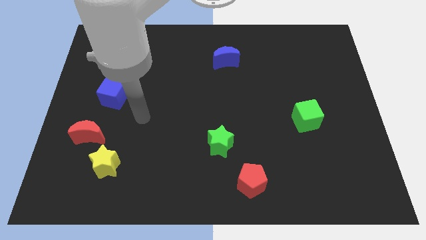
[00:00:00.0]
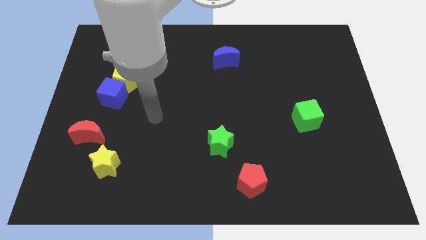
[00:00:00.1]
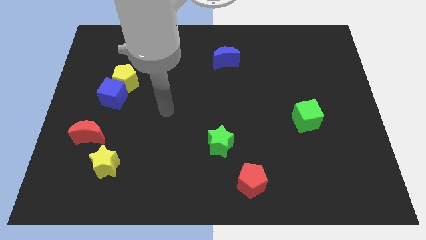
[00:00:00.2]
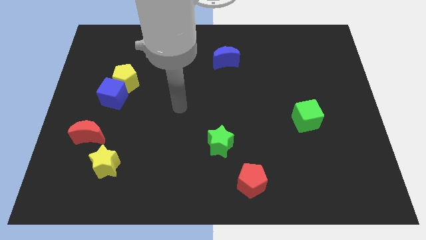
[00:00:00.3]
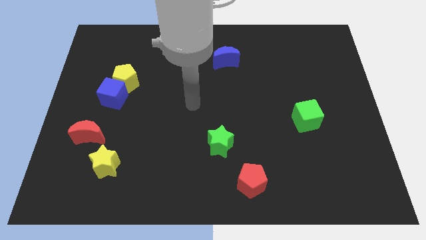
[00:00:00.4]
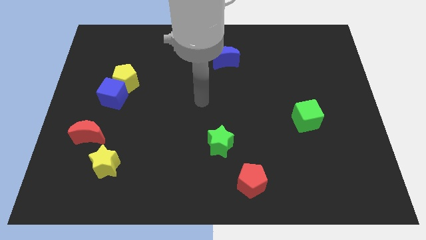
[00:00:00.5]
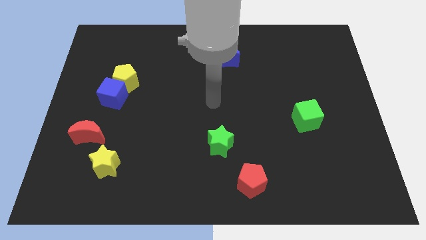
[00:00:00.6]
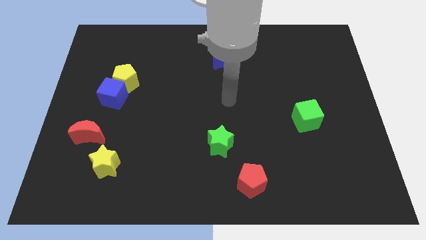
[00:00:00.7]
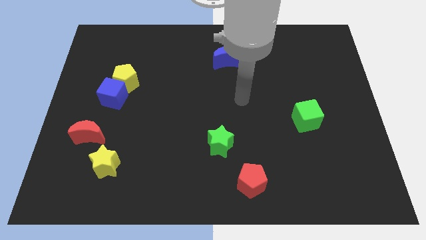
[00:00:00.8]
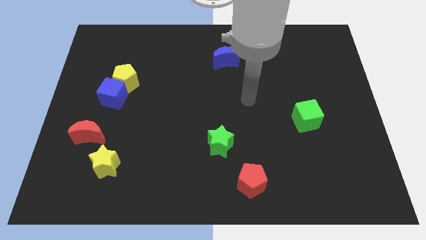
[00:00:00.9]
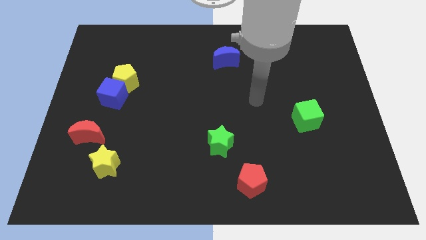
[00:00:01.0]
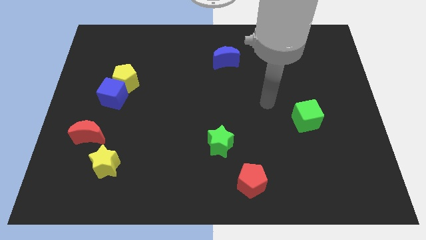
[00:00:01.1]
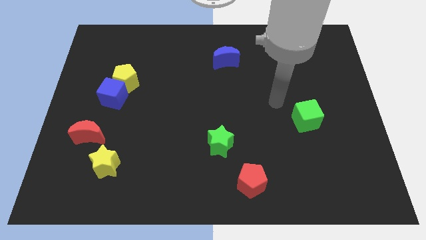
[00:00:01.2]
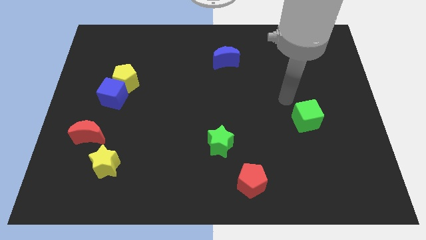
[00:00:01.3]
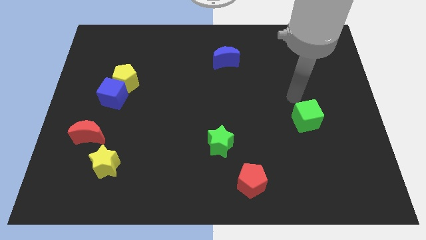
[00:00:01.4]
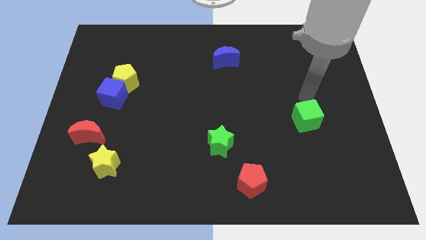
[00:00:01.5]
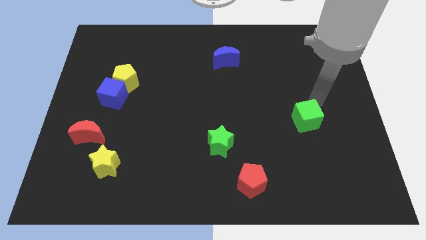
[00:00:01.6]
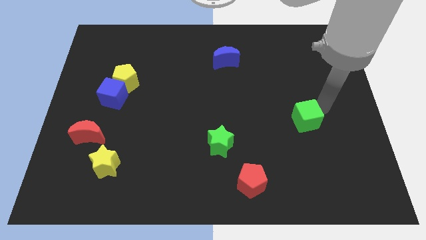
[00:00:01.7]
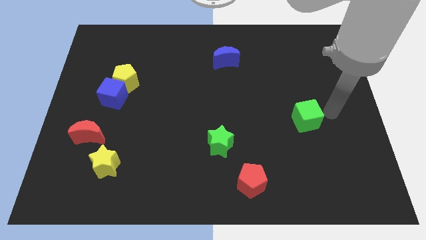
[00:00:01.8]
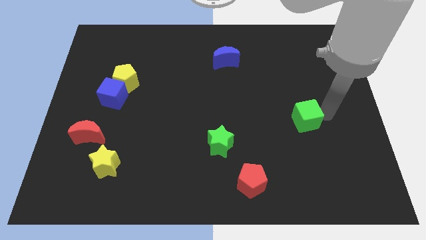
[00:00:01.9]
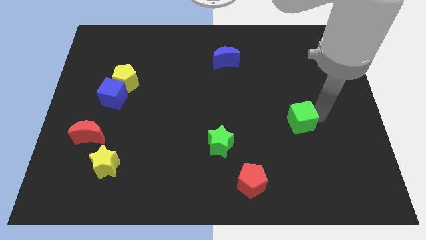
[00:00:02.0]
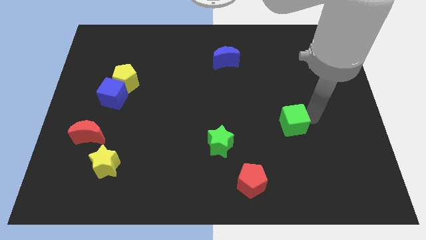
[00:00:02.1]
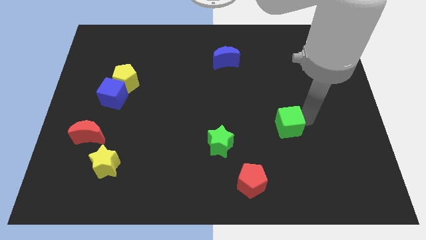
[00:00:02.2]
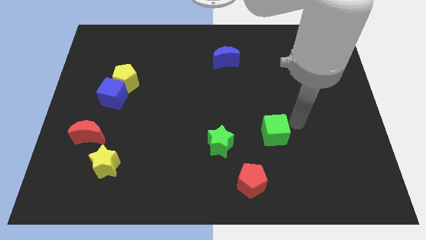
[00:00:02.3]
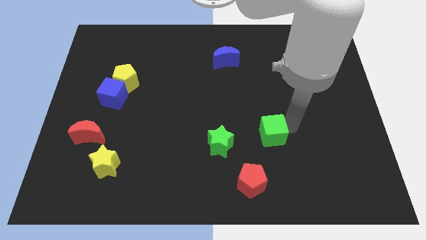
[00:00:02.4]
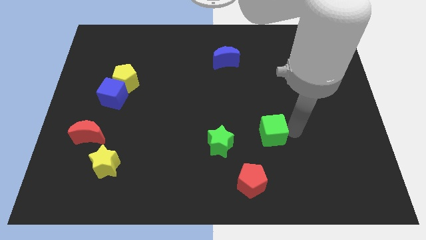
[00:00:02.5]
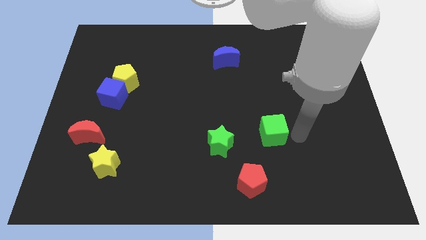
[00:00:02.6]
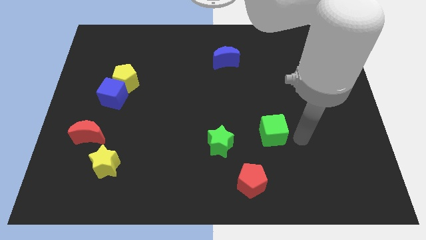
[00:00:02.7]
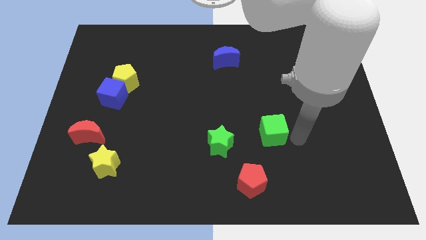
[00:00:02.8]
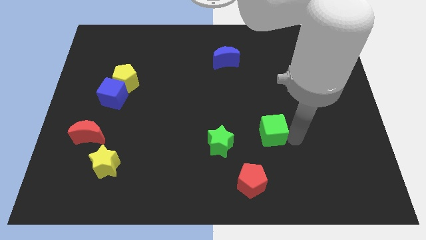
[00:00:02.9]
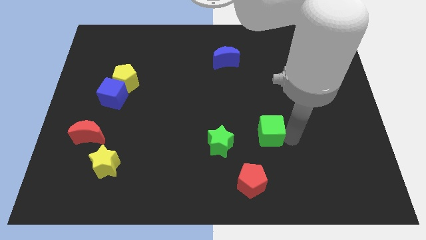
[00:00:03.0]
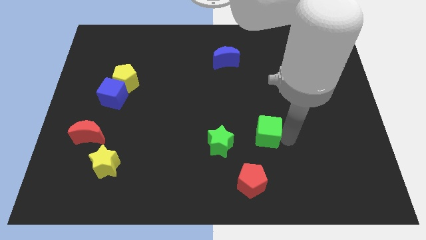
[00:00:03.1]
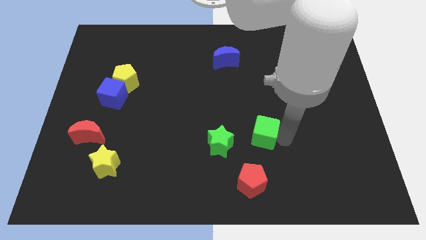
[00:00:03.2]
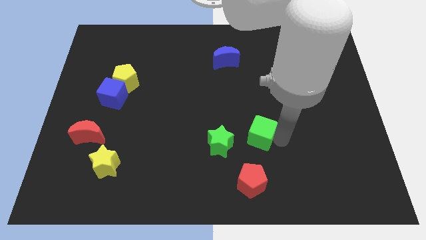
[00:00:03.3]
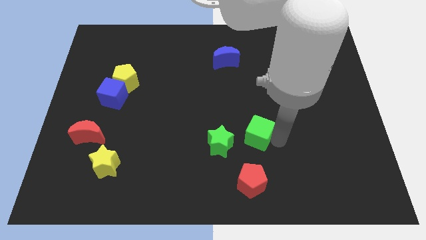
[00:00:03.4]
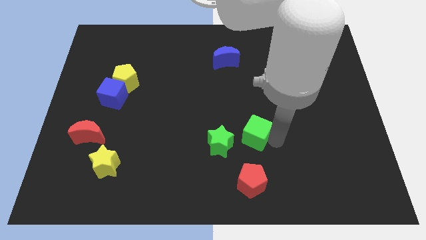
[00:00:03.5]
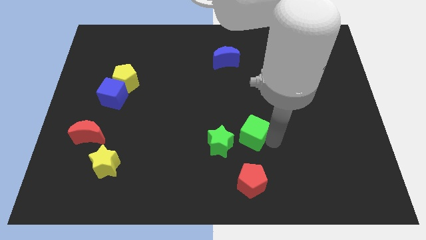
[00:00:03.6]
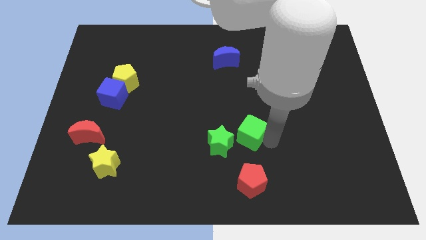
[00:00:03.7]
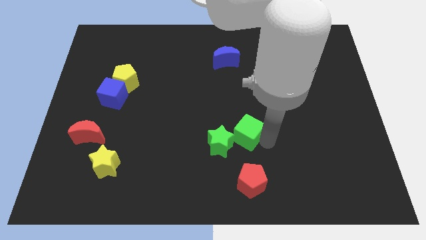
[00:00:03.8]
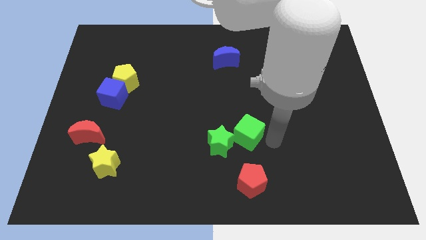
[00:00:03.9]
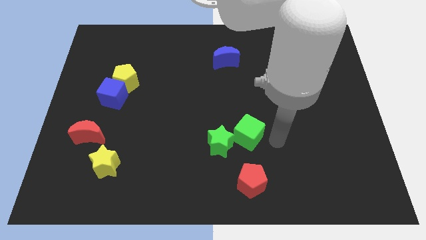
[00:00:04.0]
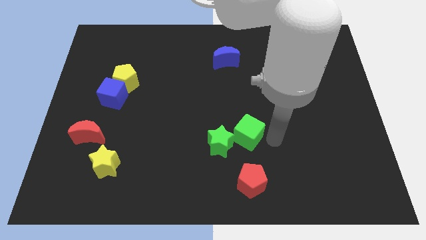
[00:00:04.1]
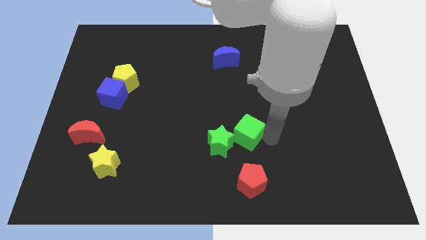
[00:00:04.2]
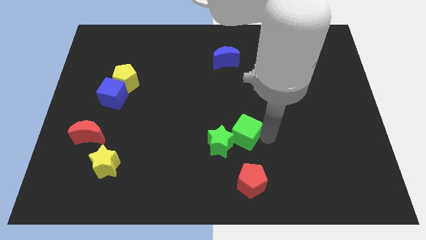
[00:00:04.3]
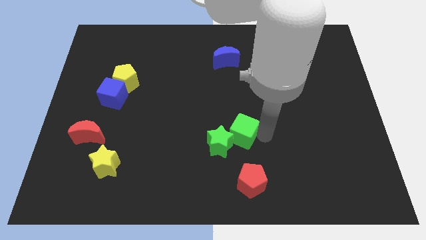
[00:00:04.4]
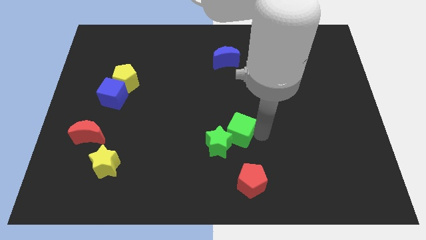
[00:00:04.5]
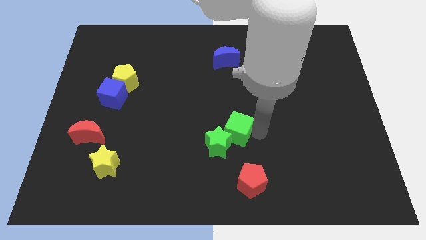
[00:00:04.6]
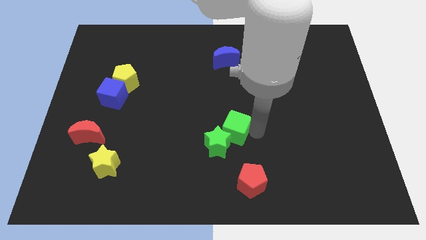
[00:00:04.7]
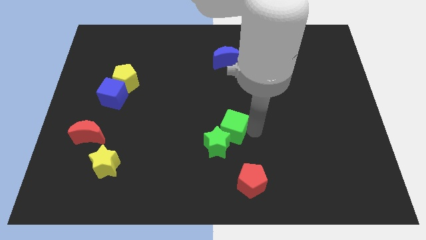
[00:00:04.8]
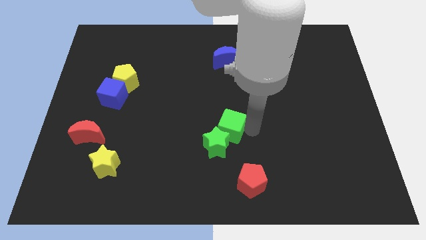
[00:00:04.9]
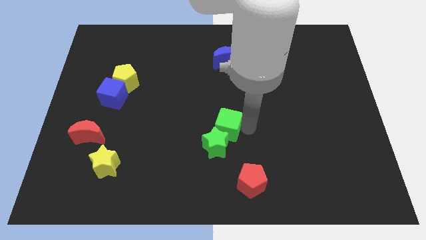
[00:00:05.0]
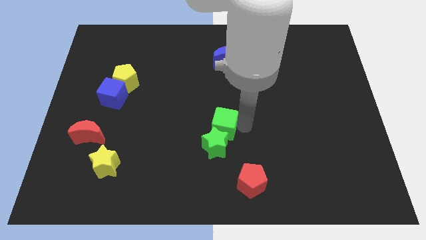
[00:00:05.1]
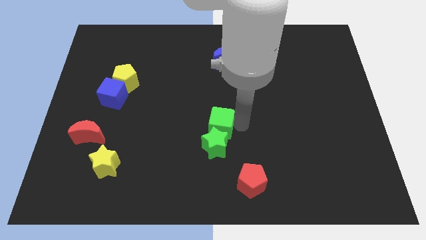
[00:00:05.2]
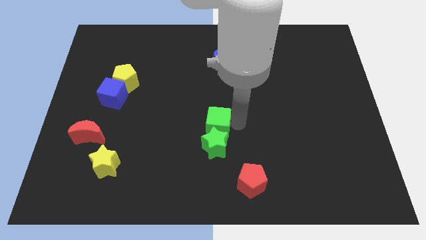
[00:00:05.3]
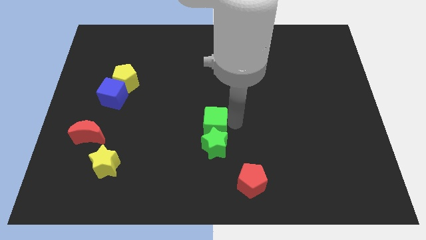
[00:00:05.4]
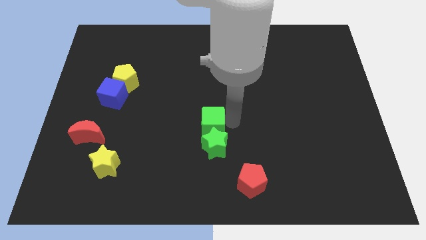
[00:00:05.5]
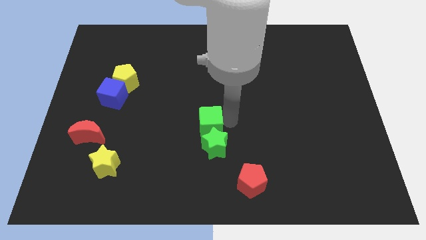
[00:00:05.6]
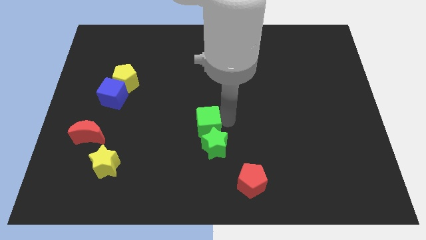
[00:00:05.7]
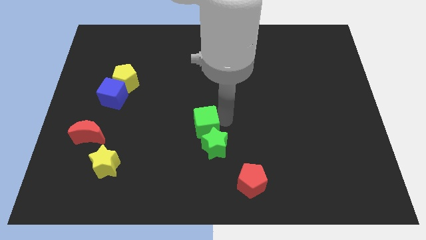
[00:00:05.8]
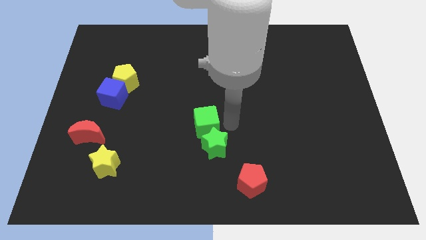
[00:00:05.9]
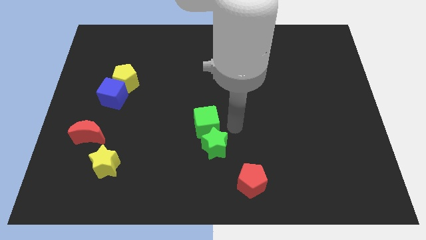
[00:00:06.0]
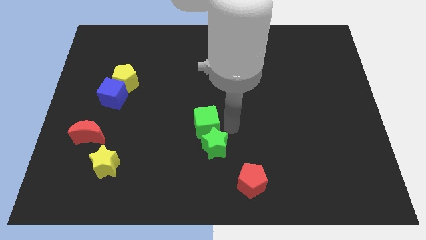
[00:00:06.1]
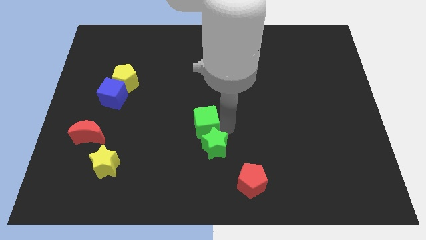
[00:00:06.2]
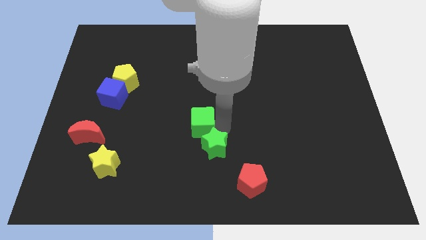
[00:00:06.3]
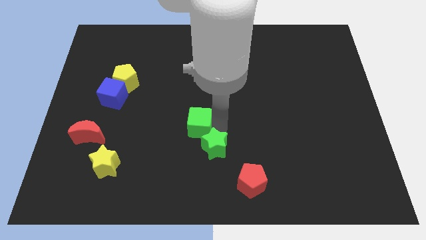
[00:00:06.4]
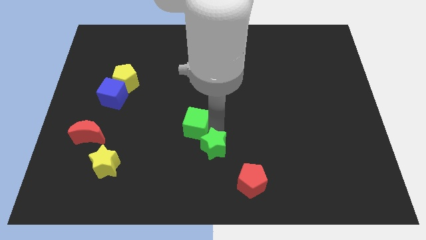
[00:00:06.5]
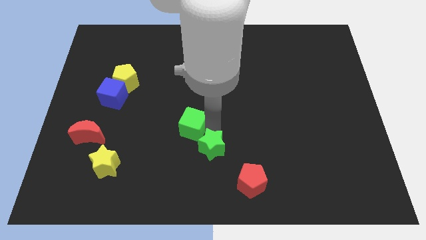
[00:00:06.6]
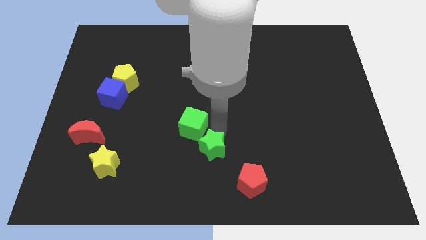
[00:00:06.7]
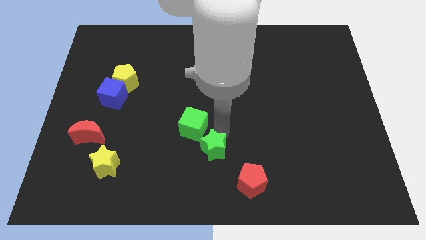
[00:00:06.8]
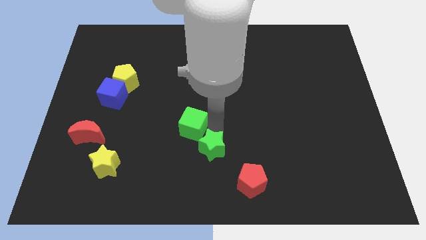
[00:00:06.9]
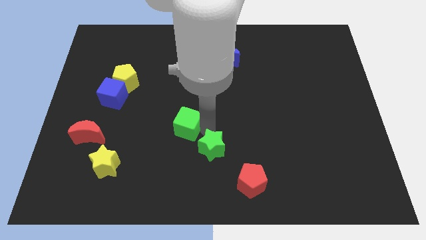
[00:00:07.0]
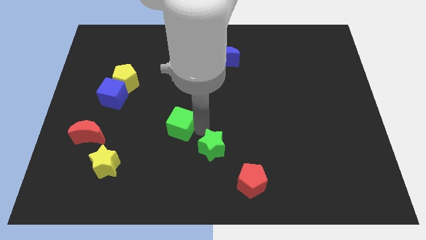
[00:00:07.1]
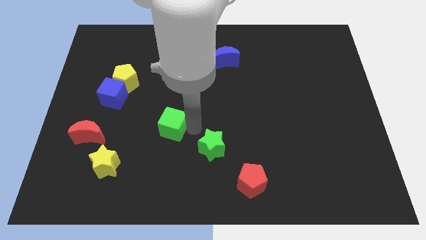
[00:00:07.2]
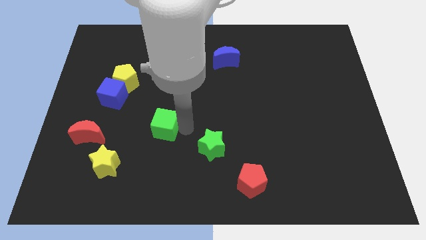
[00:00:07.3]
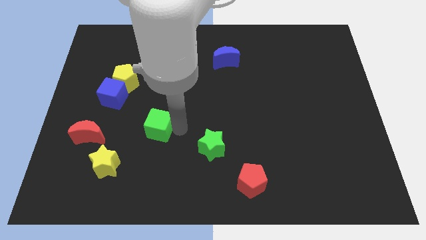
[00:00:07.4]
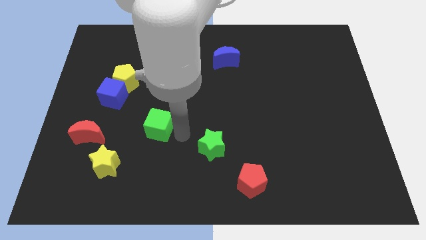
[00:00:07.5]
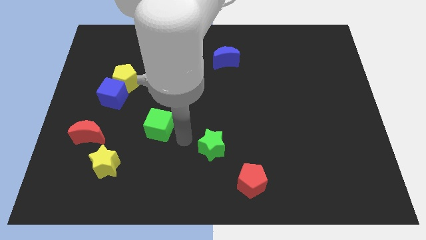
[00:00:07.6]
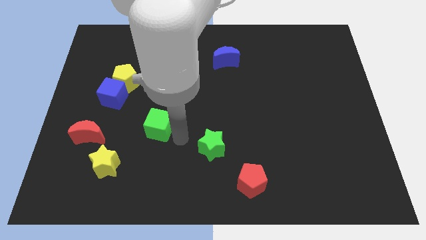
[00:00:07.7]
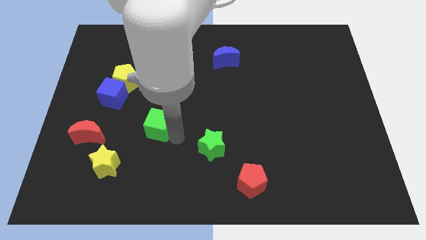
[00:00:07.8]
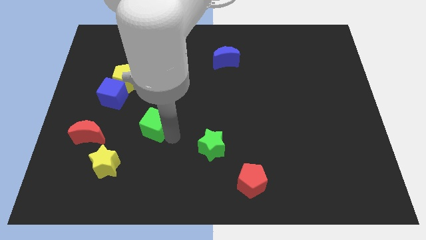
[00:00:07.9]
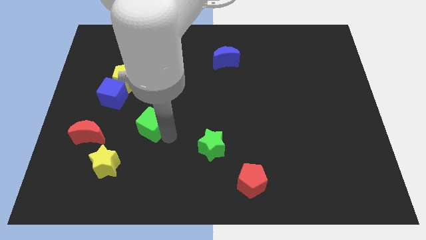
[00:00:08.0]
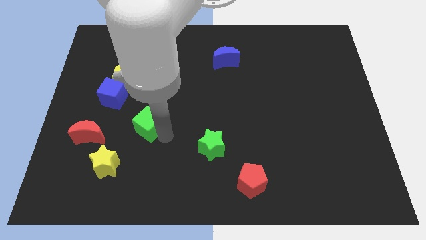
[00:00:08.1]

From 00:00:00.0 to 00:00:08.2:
slide the green cube to the bottom right side of the blue cube
